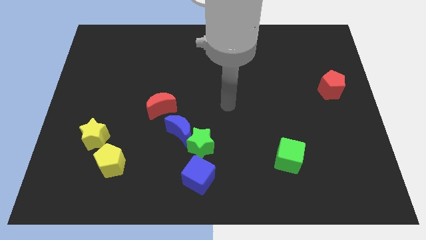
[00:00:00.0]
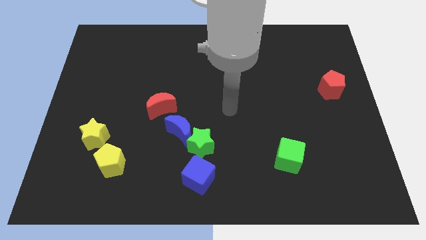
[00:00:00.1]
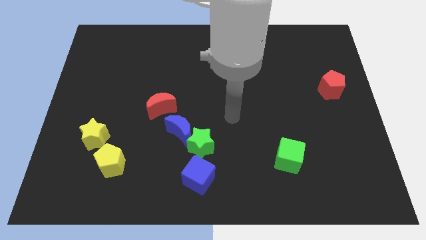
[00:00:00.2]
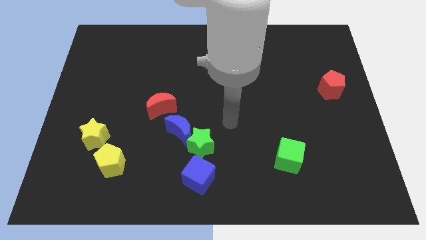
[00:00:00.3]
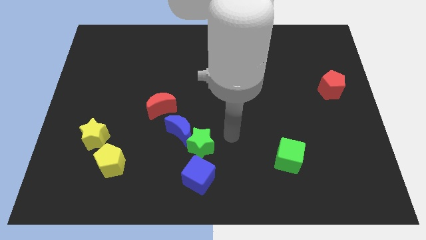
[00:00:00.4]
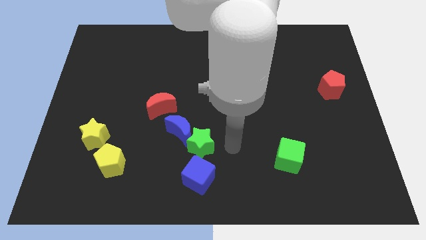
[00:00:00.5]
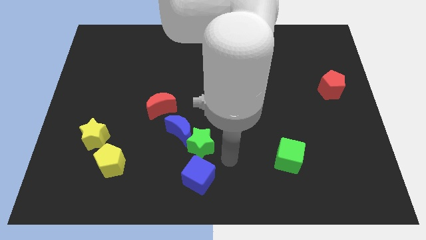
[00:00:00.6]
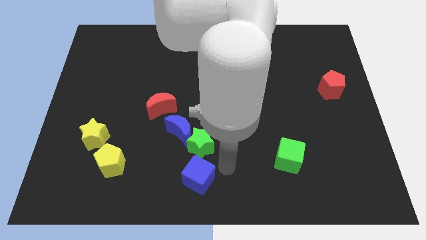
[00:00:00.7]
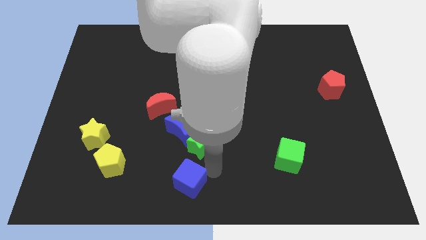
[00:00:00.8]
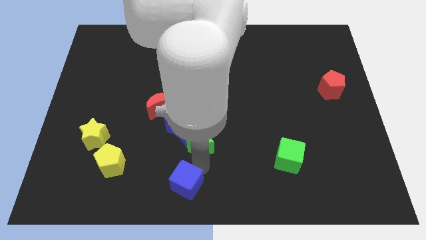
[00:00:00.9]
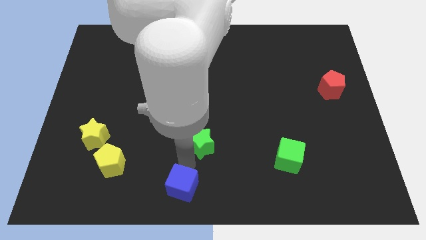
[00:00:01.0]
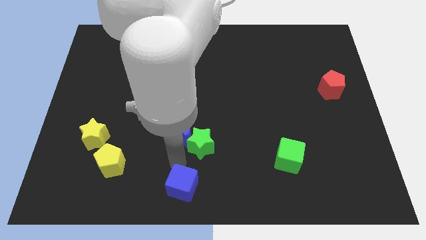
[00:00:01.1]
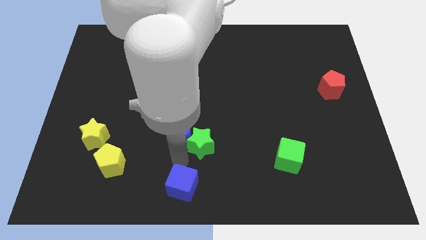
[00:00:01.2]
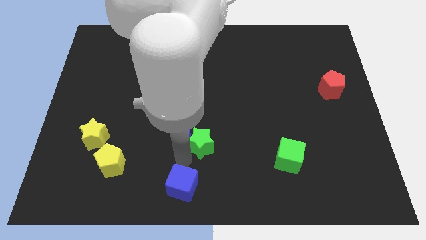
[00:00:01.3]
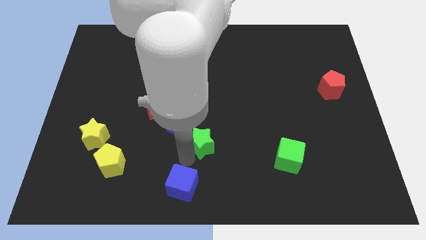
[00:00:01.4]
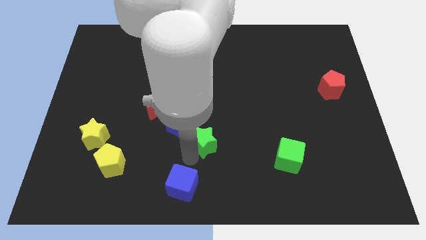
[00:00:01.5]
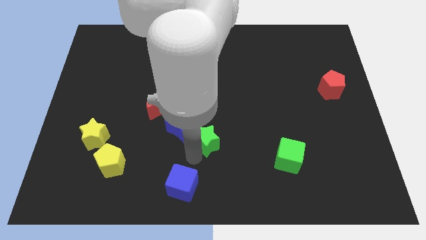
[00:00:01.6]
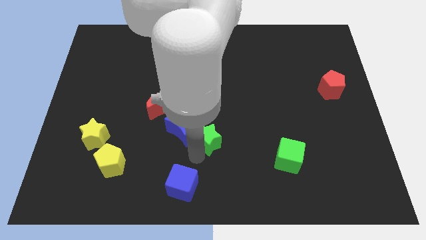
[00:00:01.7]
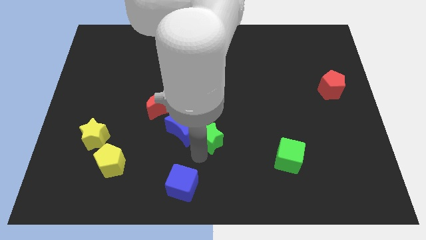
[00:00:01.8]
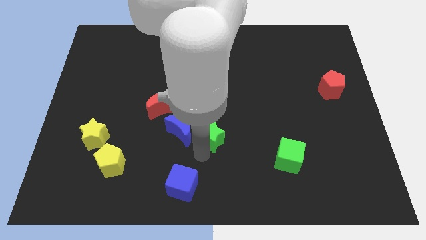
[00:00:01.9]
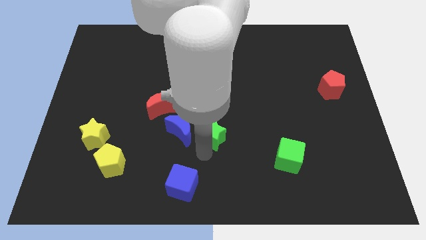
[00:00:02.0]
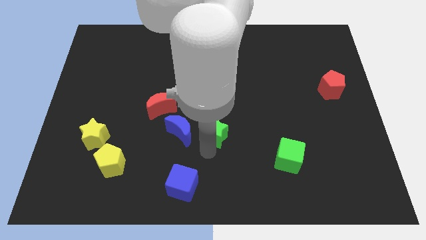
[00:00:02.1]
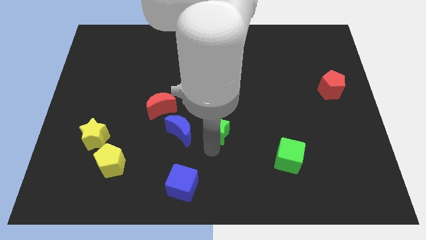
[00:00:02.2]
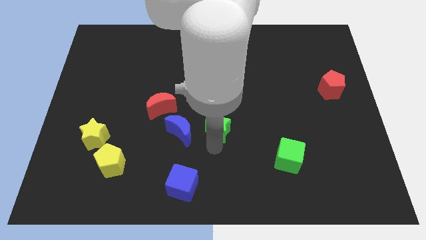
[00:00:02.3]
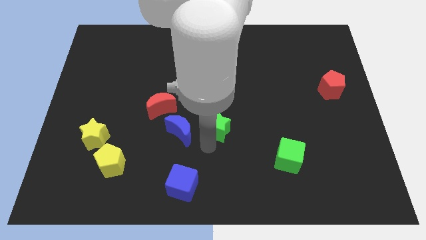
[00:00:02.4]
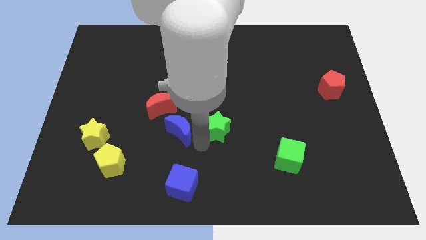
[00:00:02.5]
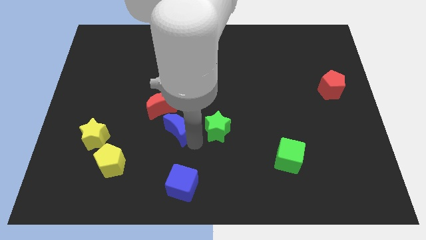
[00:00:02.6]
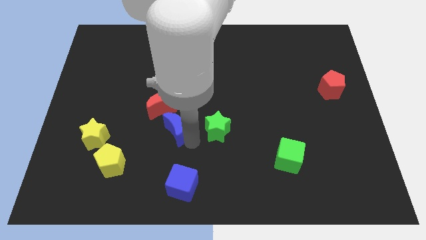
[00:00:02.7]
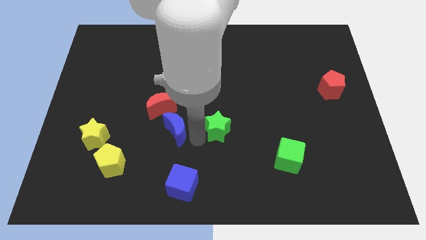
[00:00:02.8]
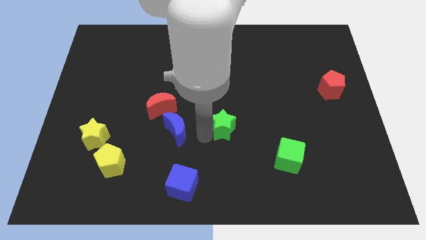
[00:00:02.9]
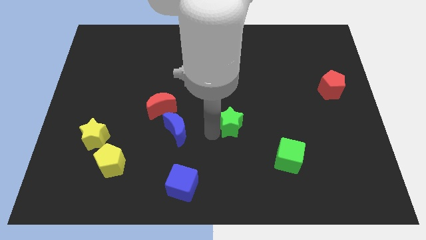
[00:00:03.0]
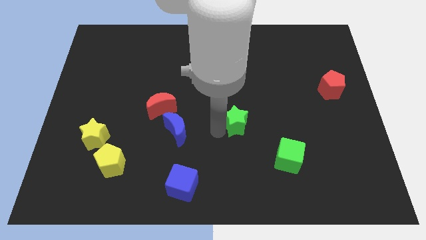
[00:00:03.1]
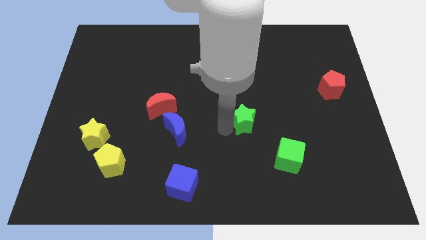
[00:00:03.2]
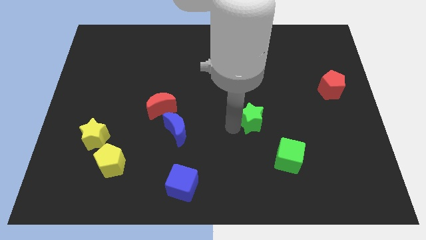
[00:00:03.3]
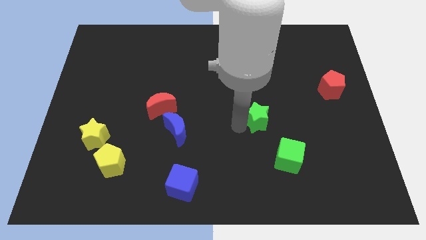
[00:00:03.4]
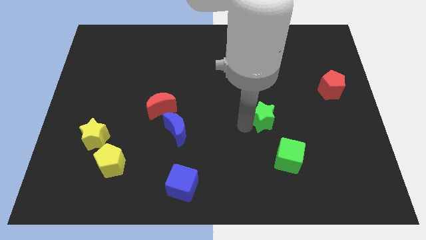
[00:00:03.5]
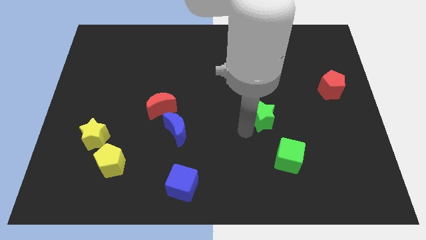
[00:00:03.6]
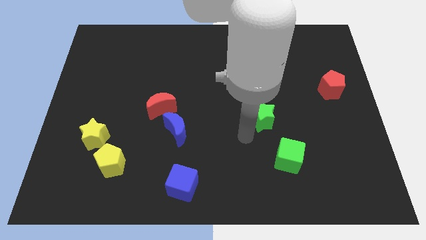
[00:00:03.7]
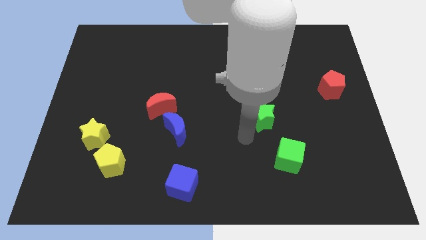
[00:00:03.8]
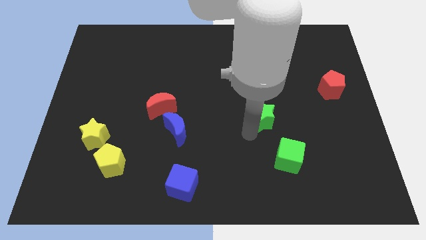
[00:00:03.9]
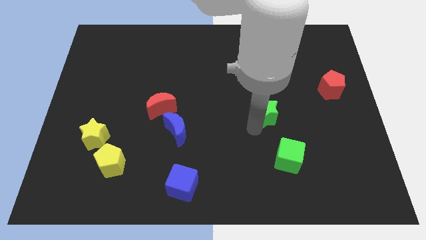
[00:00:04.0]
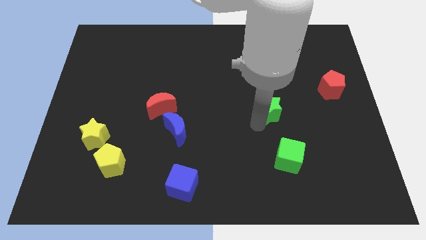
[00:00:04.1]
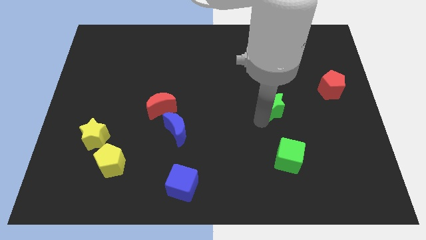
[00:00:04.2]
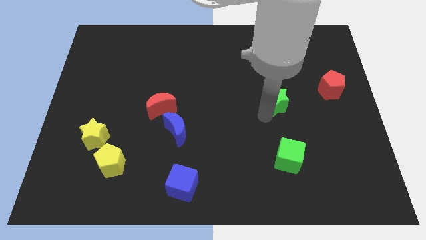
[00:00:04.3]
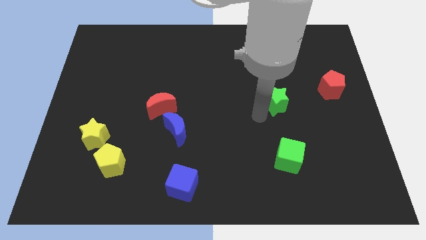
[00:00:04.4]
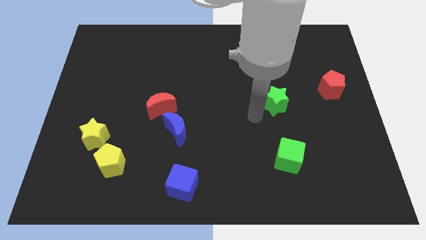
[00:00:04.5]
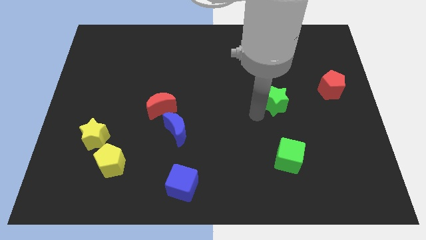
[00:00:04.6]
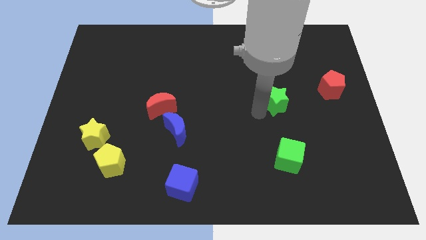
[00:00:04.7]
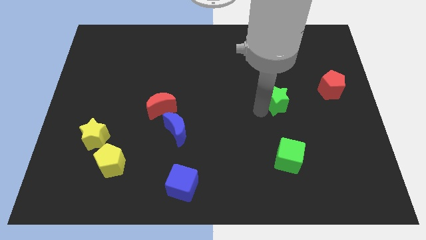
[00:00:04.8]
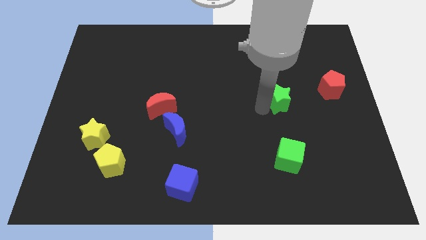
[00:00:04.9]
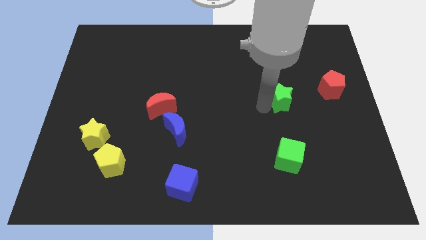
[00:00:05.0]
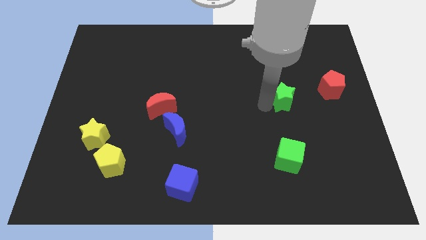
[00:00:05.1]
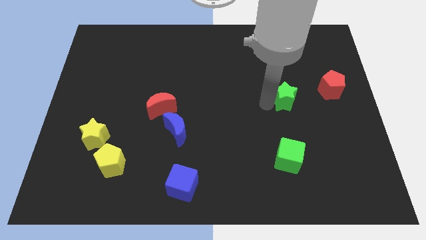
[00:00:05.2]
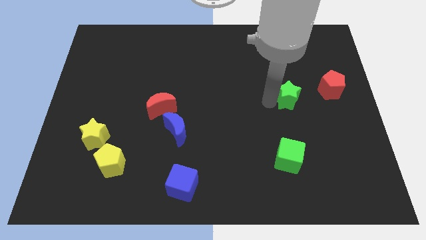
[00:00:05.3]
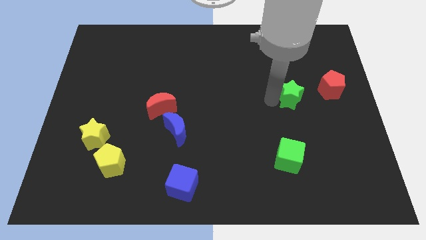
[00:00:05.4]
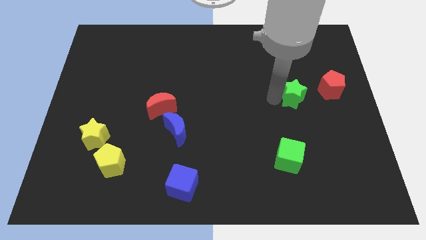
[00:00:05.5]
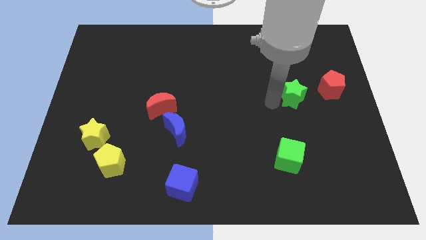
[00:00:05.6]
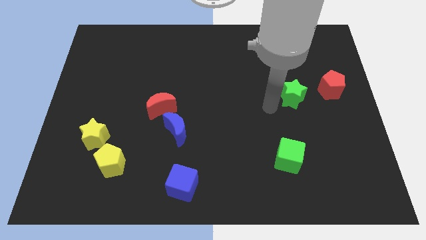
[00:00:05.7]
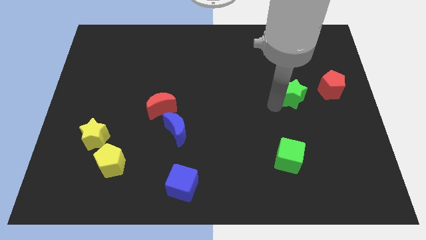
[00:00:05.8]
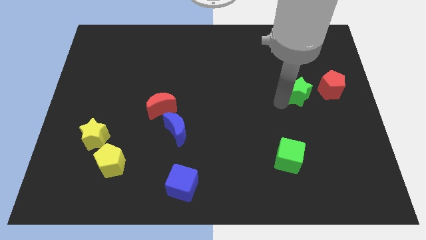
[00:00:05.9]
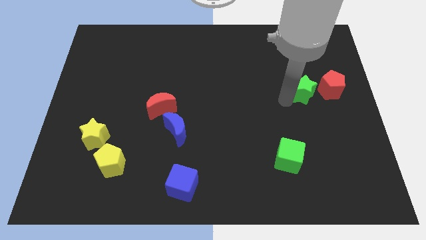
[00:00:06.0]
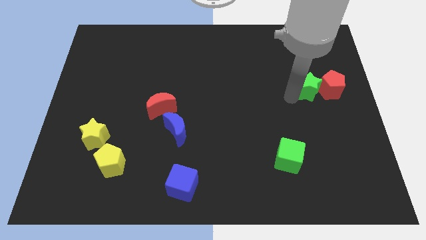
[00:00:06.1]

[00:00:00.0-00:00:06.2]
move the green star towards the red pentagon

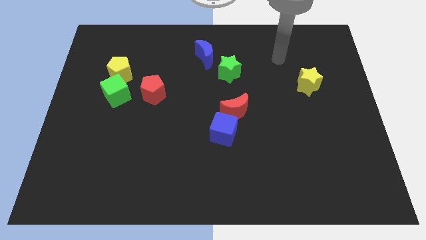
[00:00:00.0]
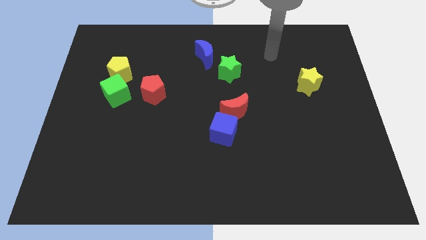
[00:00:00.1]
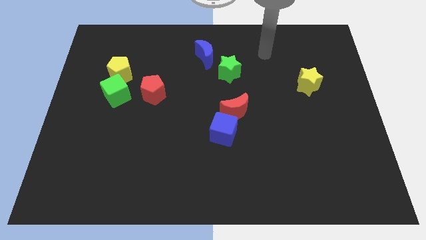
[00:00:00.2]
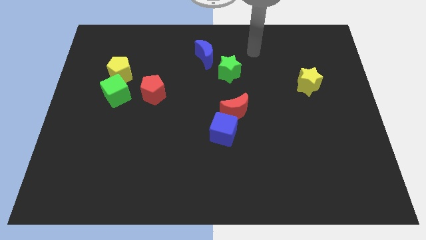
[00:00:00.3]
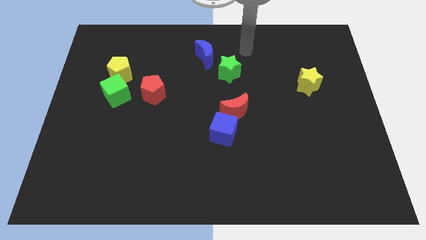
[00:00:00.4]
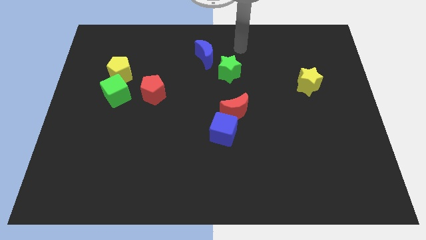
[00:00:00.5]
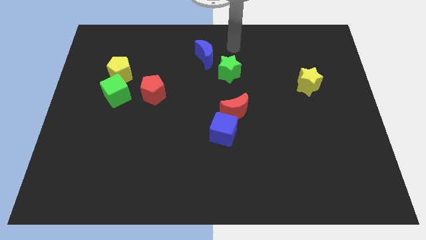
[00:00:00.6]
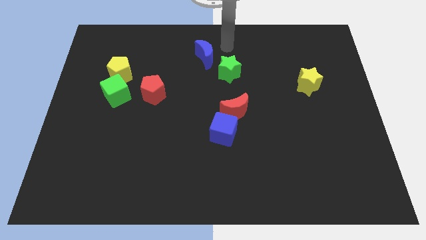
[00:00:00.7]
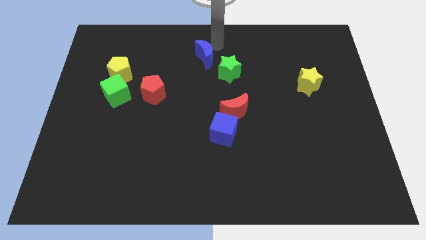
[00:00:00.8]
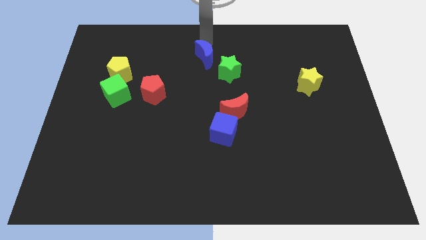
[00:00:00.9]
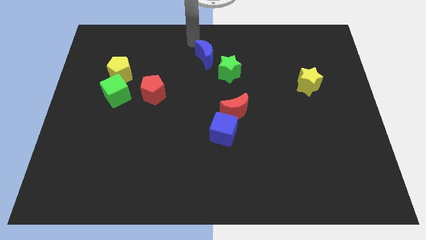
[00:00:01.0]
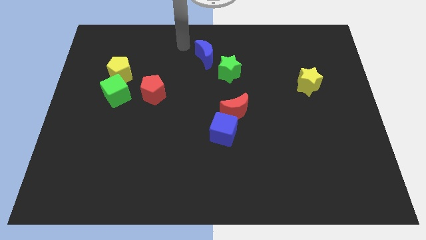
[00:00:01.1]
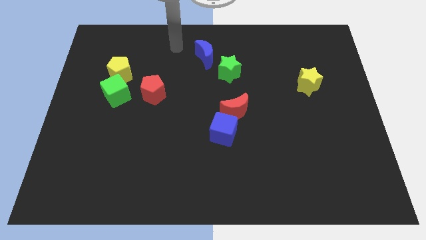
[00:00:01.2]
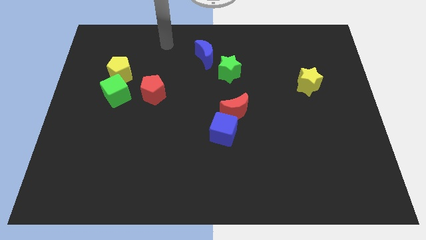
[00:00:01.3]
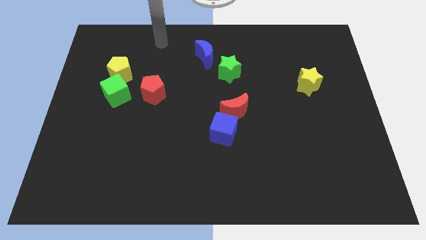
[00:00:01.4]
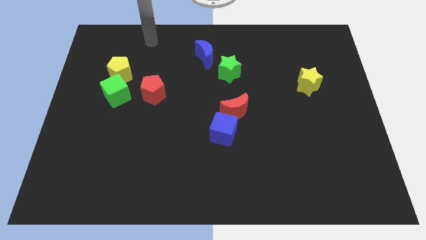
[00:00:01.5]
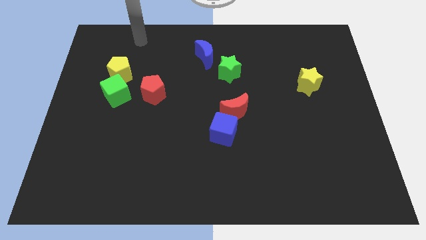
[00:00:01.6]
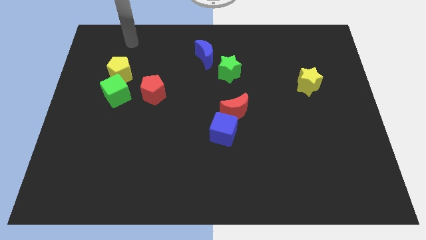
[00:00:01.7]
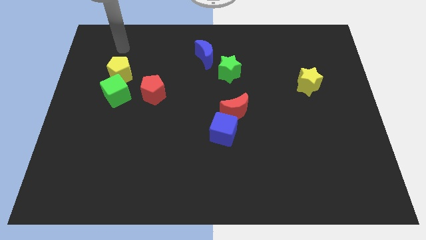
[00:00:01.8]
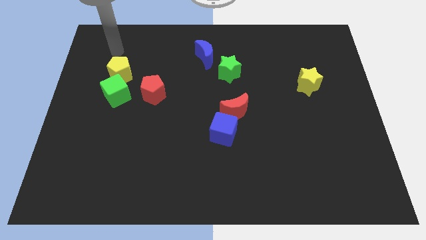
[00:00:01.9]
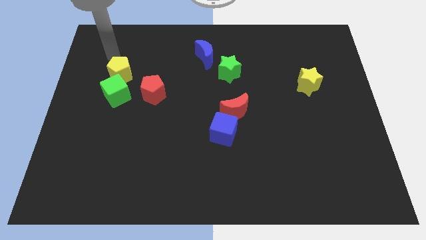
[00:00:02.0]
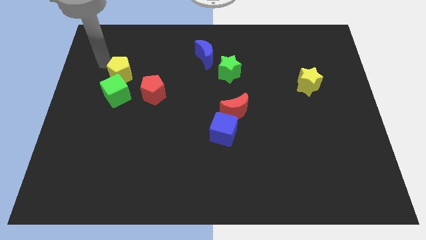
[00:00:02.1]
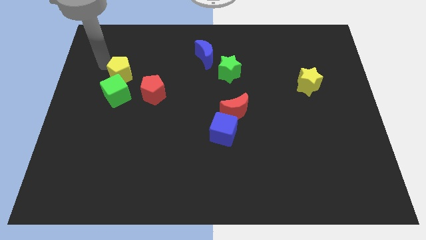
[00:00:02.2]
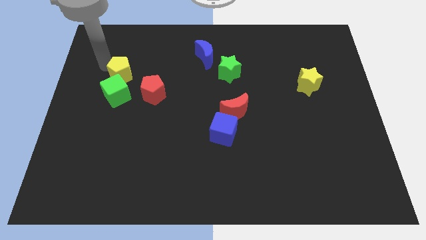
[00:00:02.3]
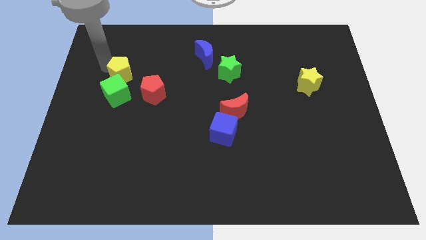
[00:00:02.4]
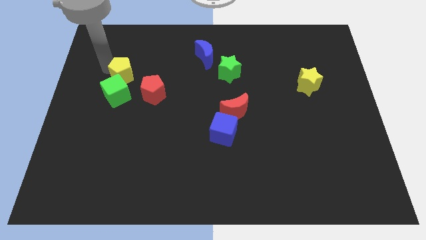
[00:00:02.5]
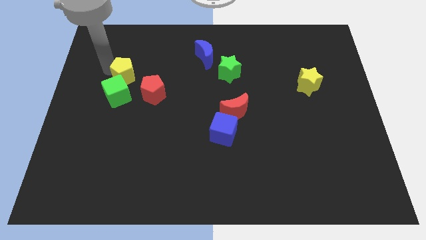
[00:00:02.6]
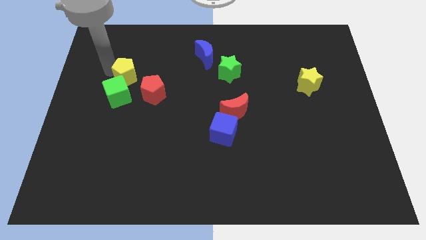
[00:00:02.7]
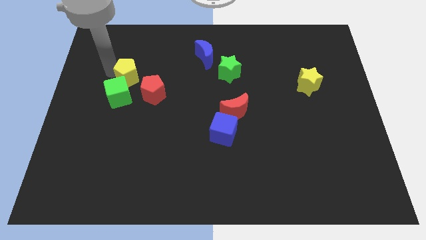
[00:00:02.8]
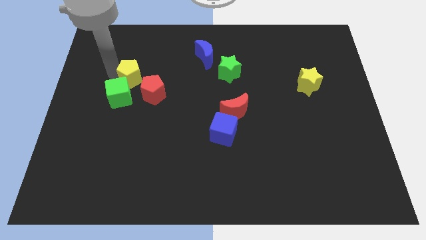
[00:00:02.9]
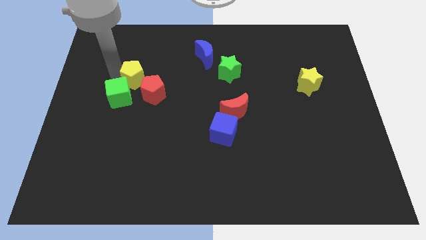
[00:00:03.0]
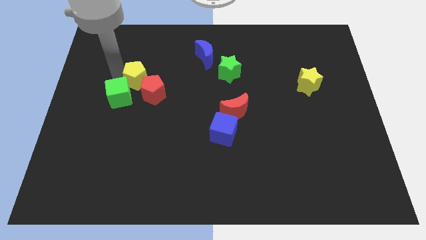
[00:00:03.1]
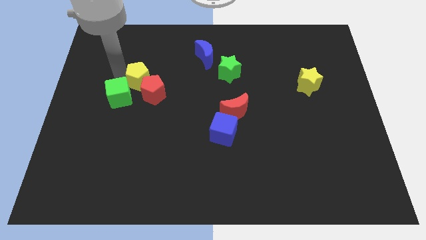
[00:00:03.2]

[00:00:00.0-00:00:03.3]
move the yellow pentagon next to the red pentagon
